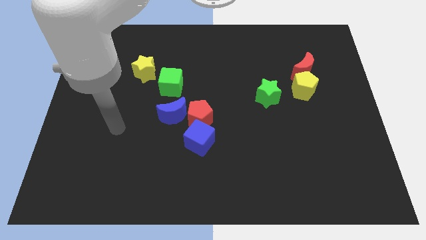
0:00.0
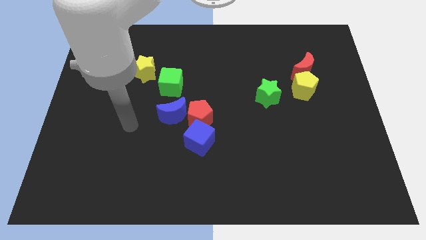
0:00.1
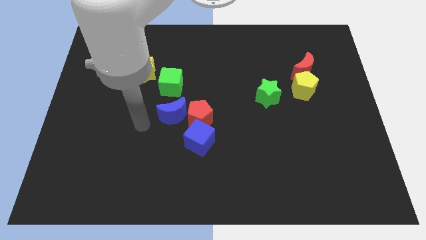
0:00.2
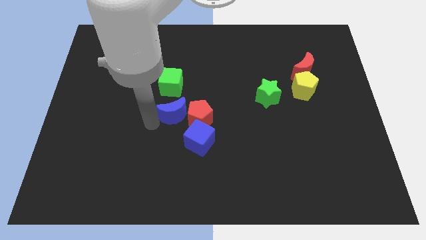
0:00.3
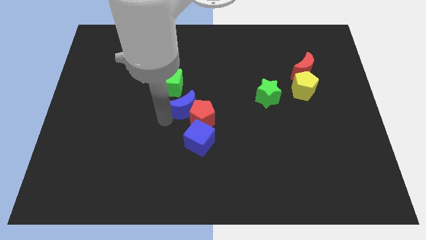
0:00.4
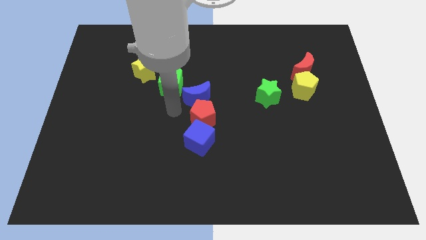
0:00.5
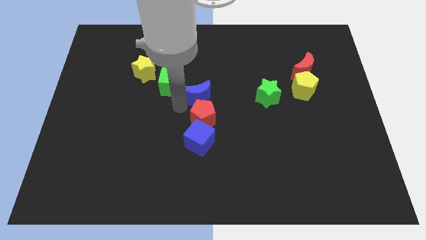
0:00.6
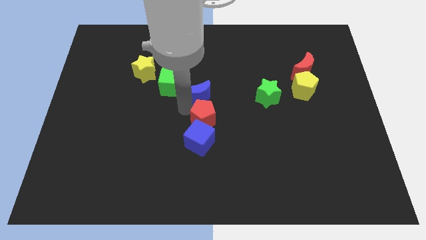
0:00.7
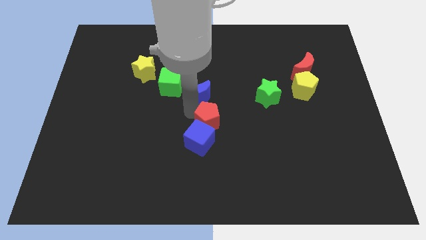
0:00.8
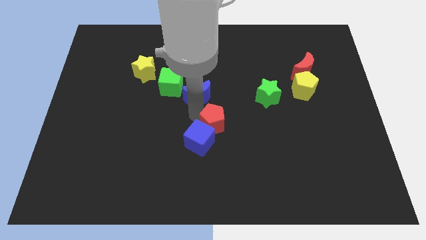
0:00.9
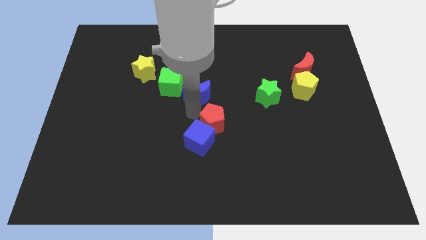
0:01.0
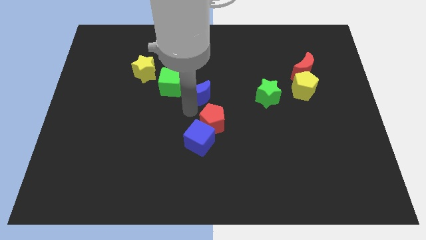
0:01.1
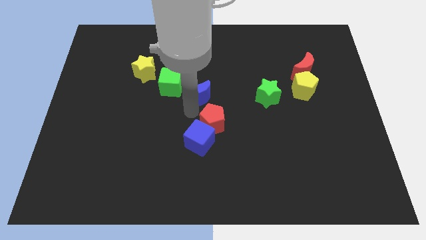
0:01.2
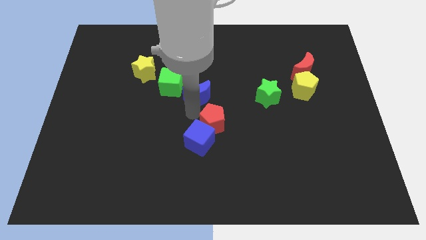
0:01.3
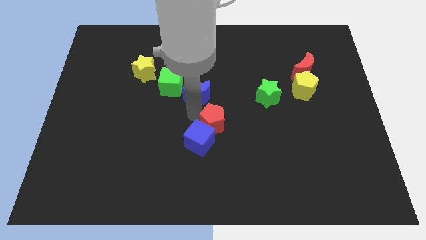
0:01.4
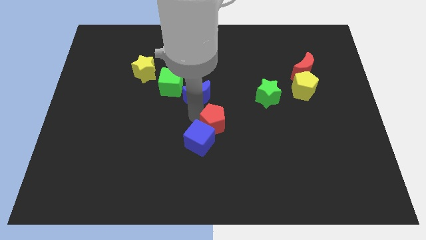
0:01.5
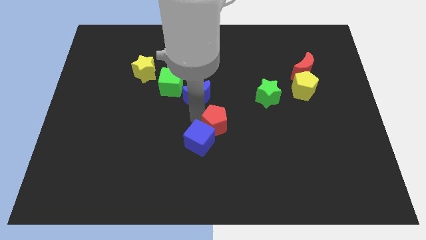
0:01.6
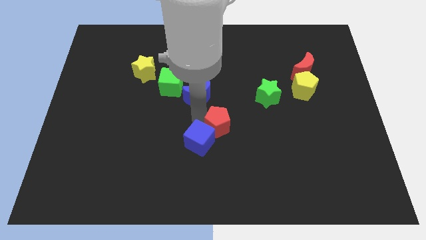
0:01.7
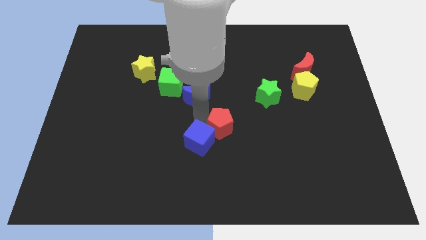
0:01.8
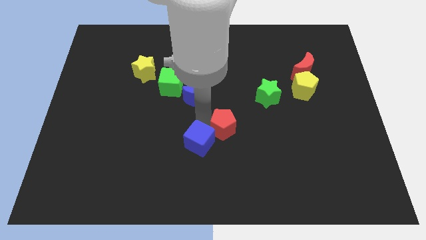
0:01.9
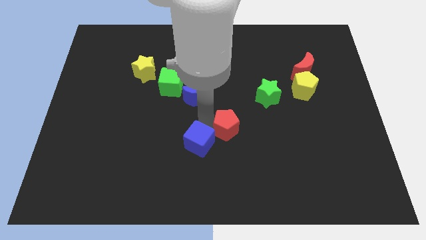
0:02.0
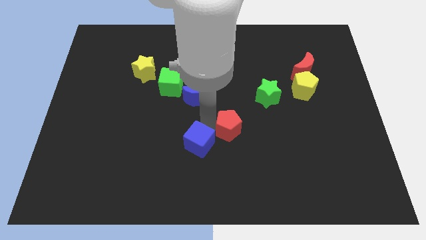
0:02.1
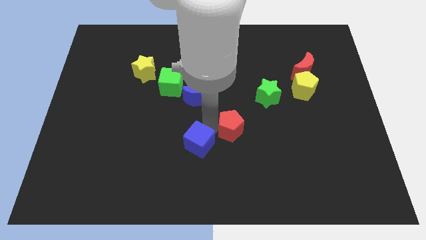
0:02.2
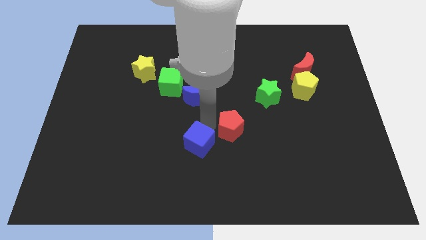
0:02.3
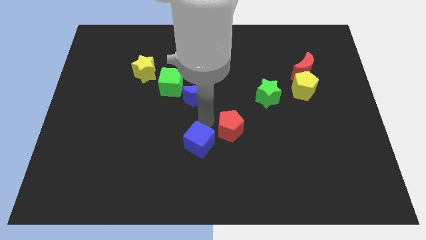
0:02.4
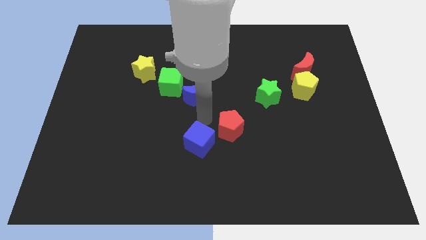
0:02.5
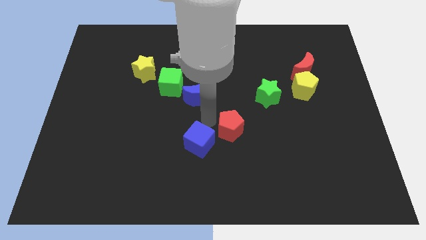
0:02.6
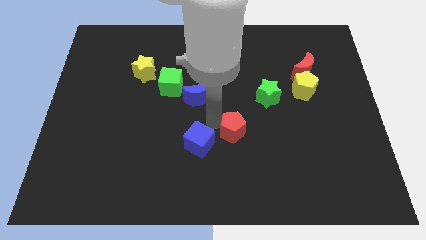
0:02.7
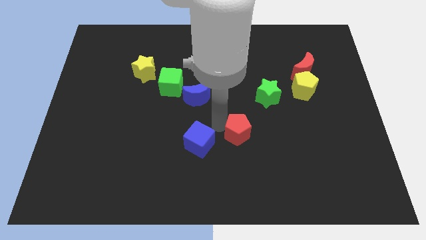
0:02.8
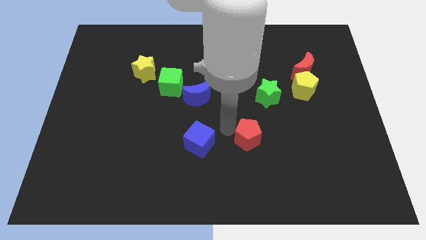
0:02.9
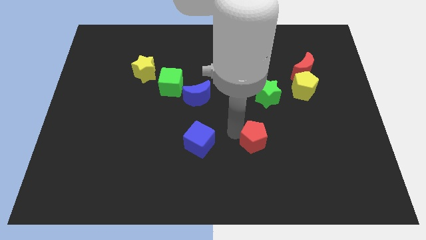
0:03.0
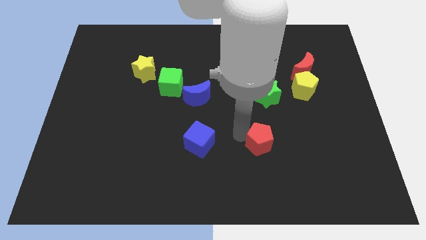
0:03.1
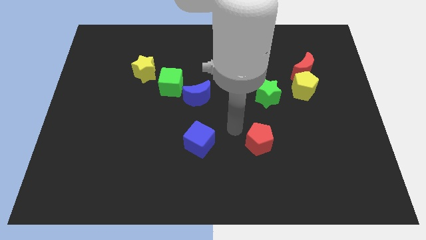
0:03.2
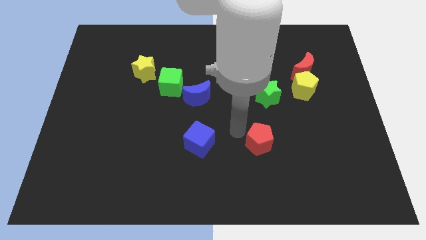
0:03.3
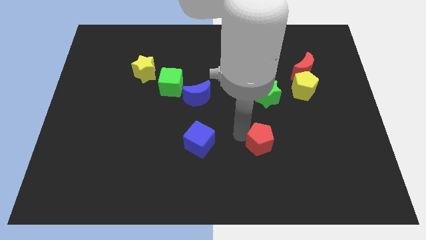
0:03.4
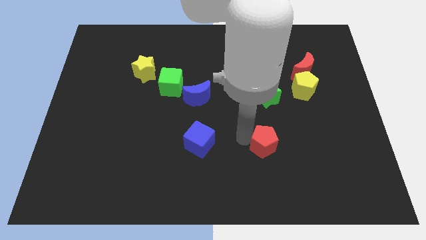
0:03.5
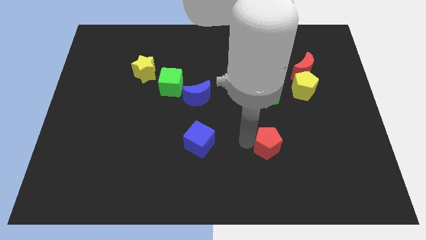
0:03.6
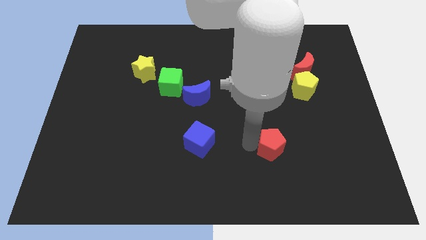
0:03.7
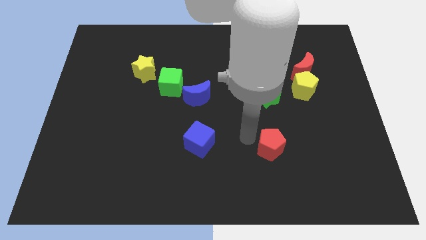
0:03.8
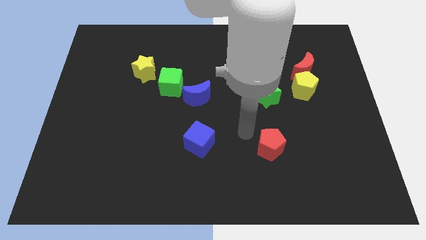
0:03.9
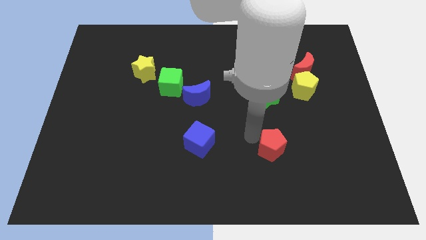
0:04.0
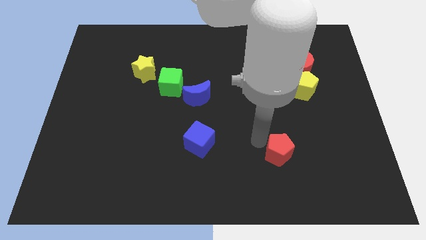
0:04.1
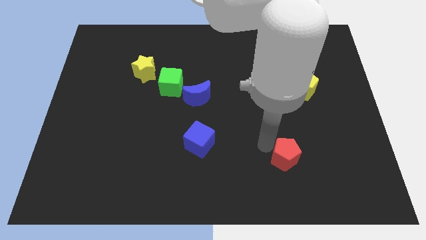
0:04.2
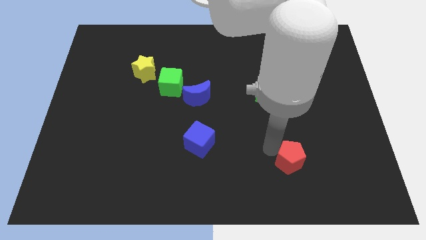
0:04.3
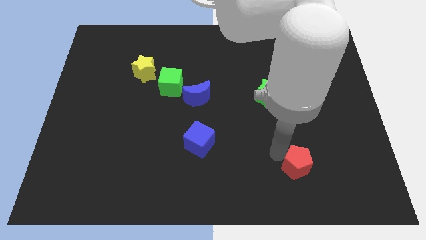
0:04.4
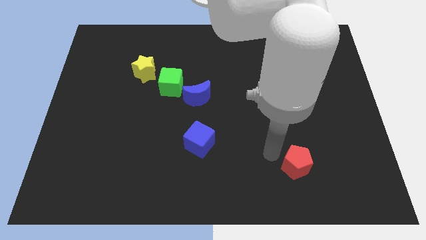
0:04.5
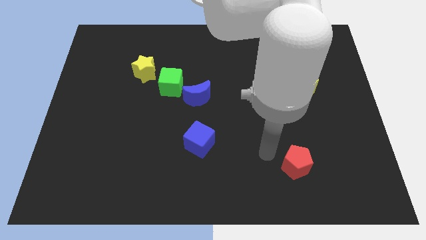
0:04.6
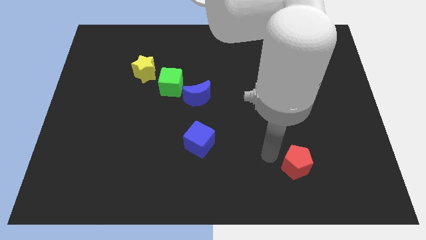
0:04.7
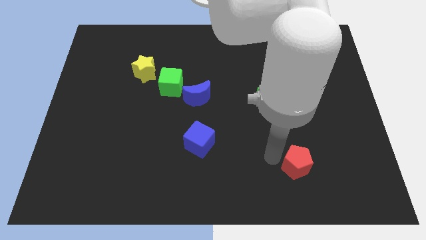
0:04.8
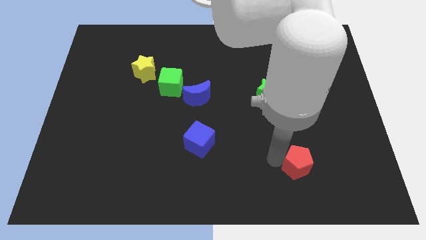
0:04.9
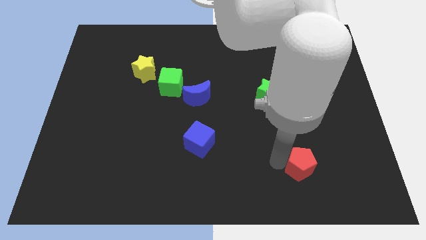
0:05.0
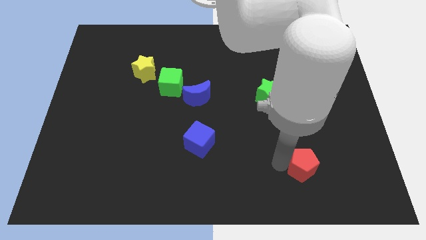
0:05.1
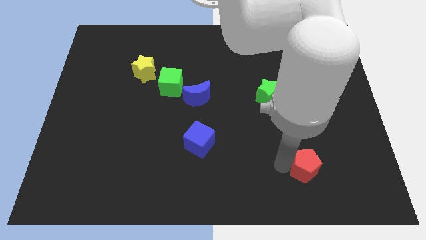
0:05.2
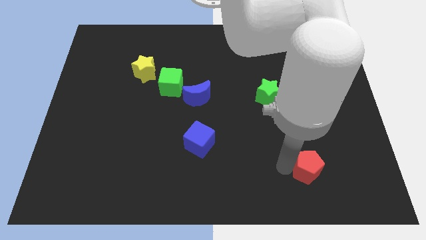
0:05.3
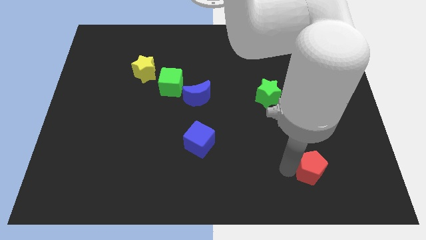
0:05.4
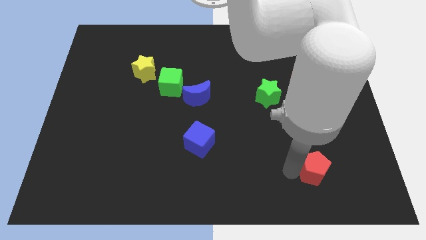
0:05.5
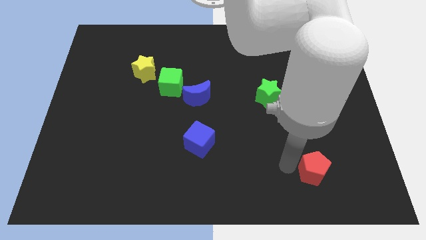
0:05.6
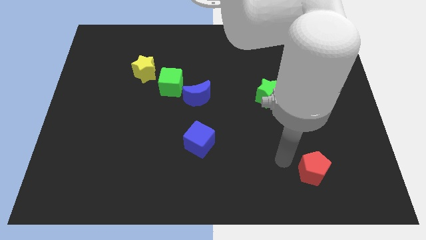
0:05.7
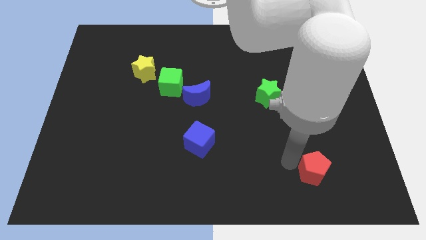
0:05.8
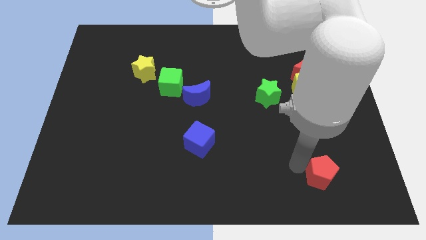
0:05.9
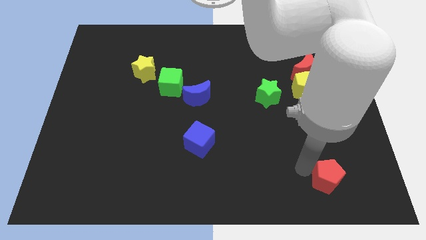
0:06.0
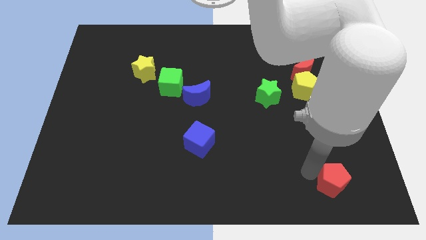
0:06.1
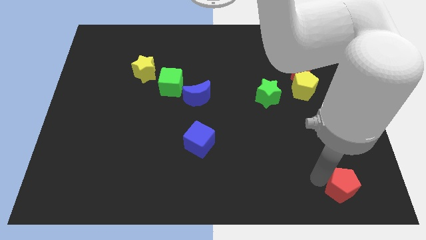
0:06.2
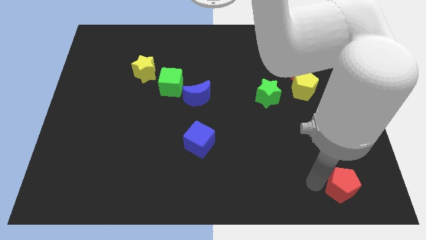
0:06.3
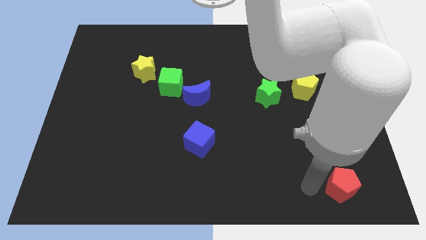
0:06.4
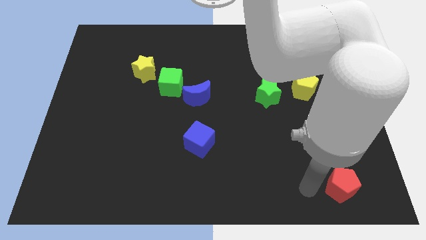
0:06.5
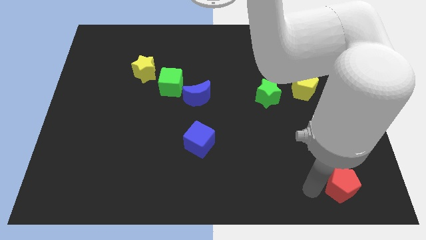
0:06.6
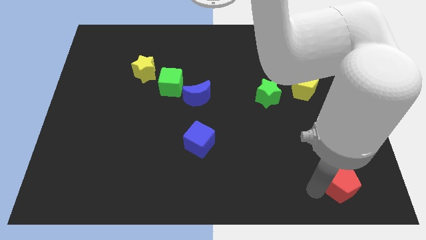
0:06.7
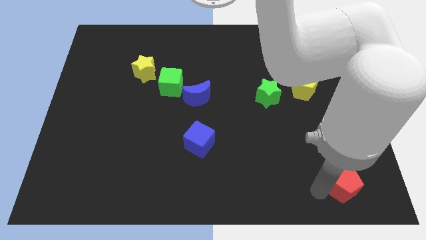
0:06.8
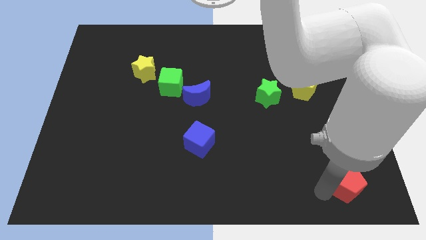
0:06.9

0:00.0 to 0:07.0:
put the red pentagon to the bottom right of the board
